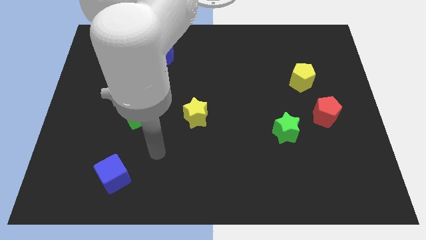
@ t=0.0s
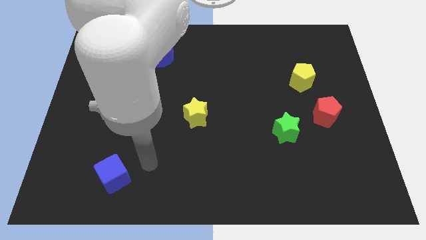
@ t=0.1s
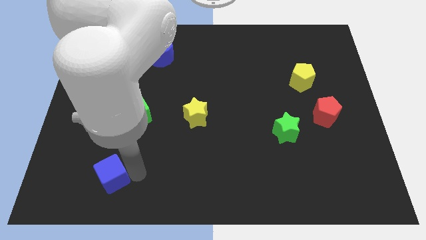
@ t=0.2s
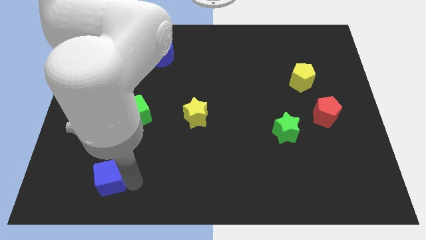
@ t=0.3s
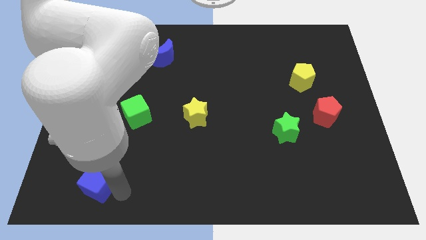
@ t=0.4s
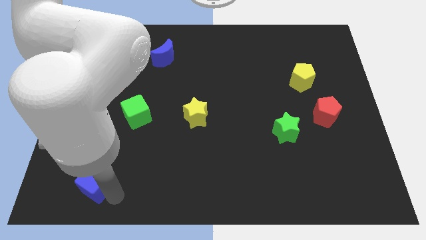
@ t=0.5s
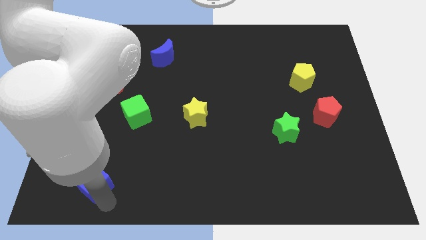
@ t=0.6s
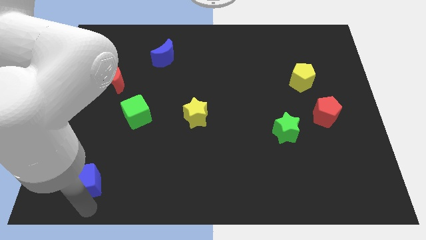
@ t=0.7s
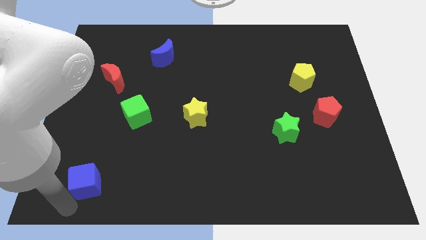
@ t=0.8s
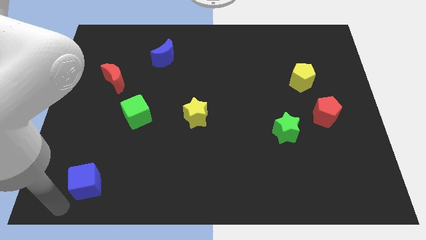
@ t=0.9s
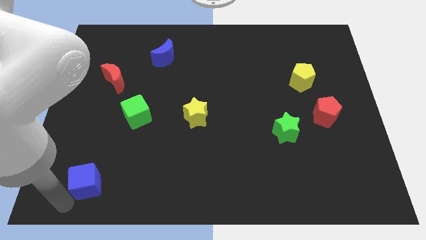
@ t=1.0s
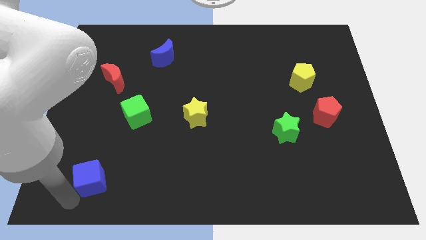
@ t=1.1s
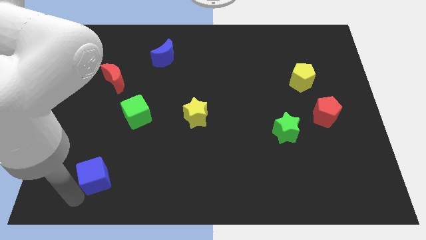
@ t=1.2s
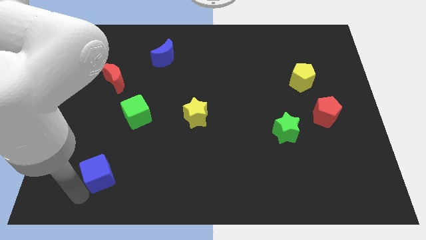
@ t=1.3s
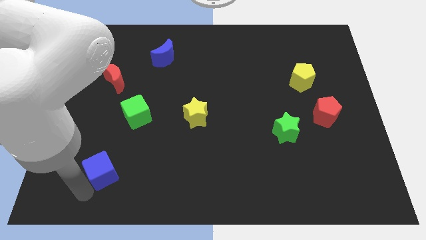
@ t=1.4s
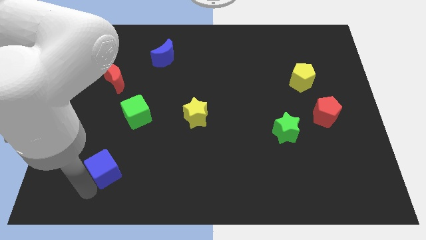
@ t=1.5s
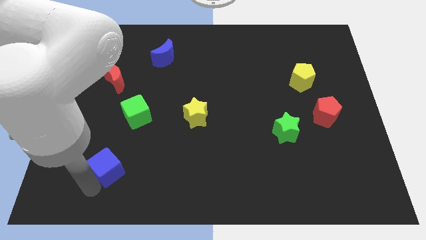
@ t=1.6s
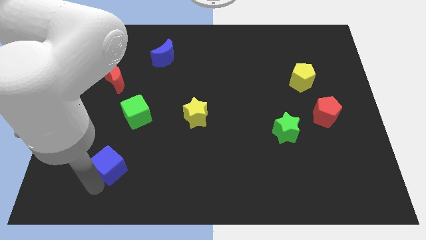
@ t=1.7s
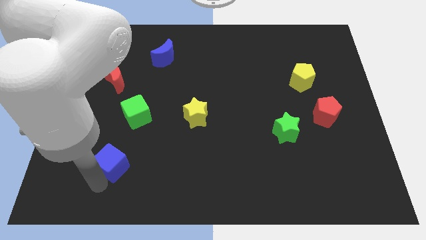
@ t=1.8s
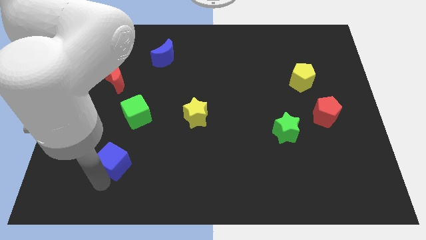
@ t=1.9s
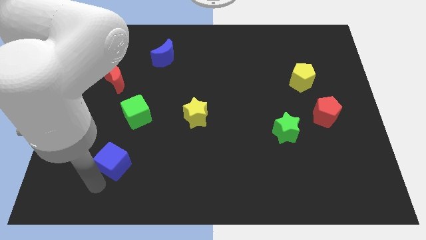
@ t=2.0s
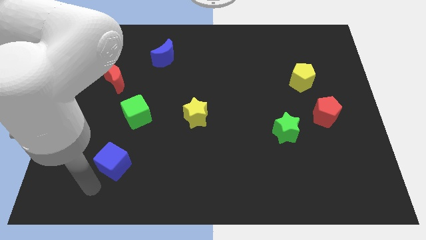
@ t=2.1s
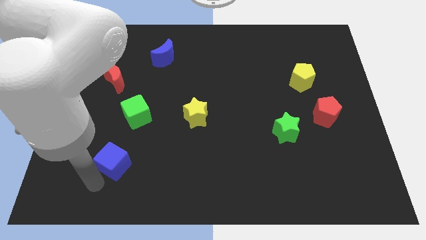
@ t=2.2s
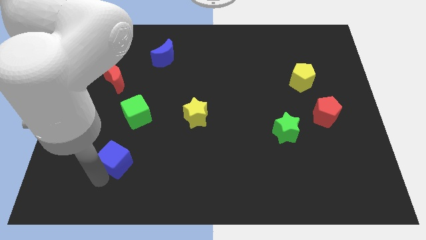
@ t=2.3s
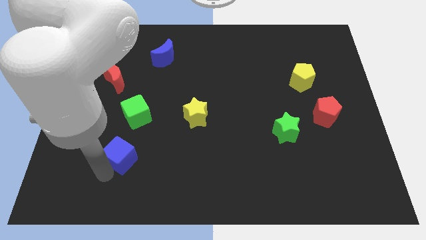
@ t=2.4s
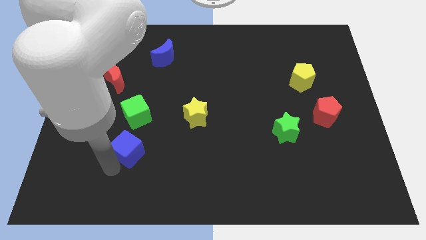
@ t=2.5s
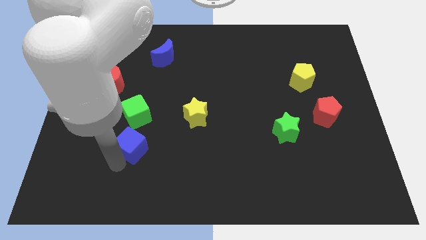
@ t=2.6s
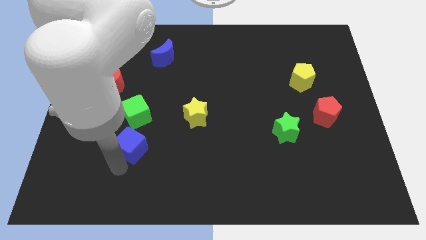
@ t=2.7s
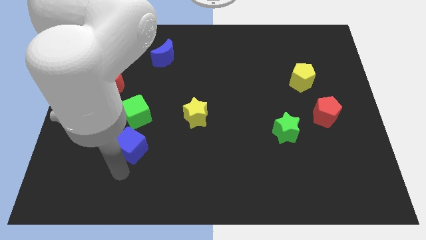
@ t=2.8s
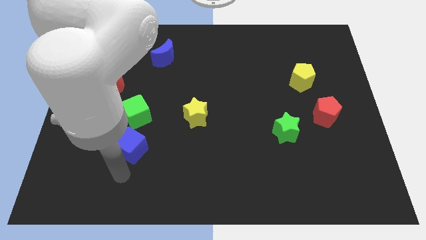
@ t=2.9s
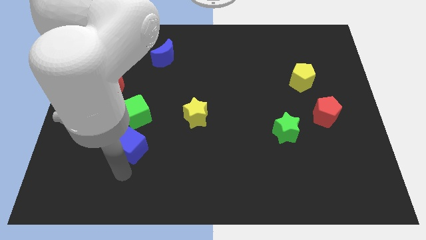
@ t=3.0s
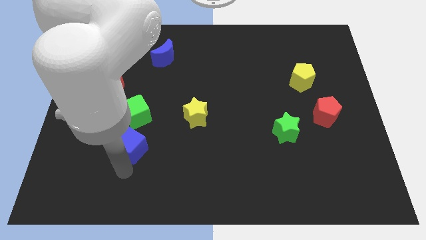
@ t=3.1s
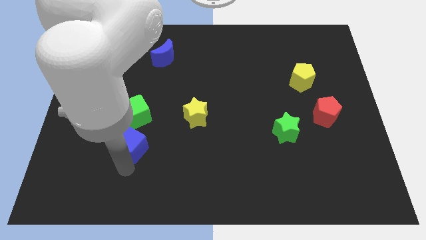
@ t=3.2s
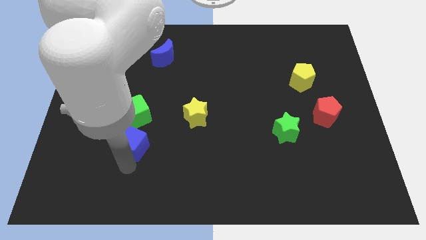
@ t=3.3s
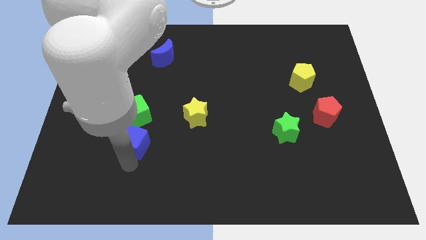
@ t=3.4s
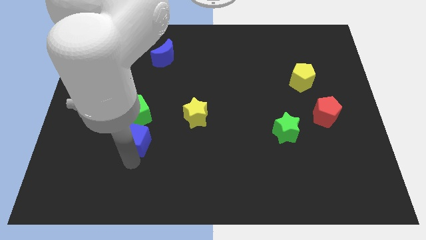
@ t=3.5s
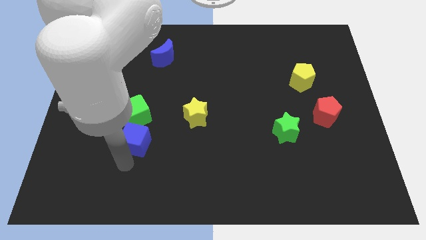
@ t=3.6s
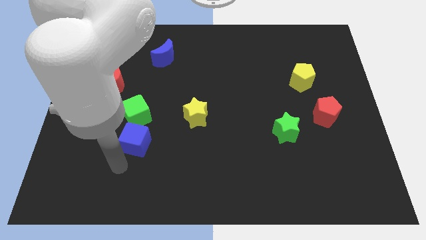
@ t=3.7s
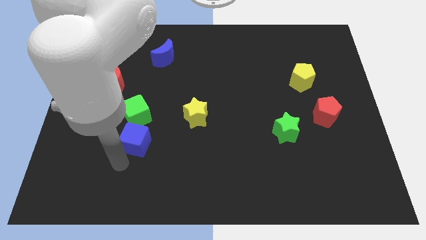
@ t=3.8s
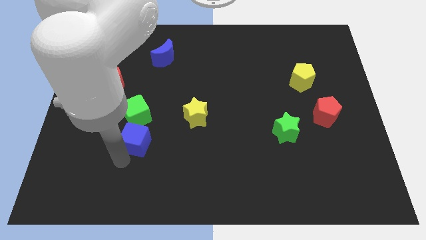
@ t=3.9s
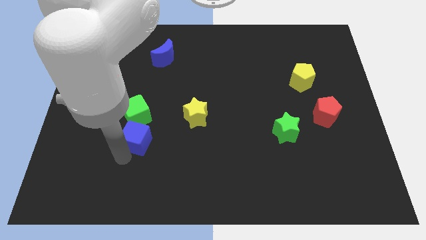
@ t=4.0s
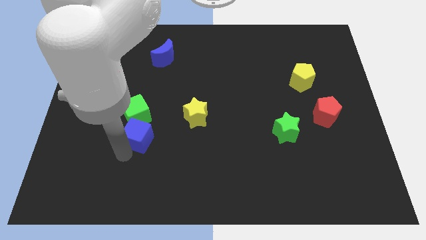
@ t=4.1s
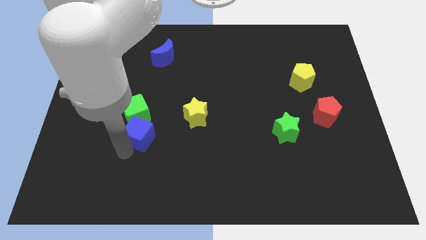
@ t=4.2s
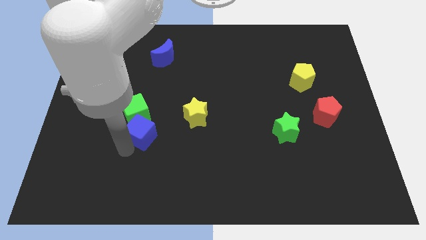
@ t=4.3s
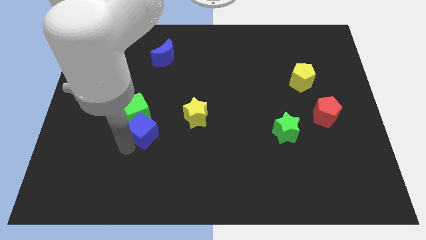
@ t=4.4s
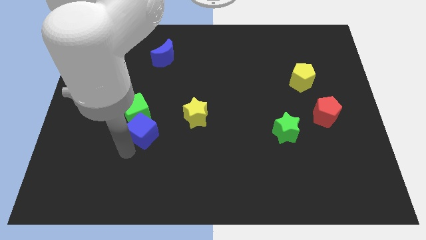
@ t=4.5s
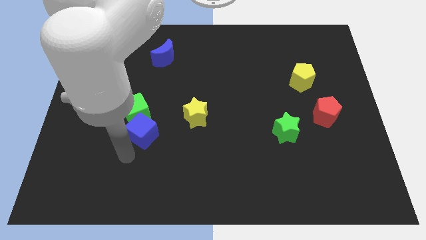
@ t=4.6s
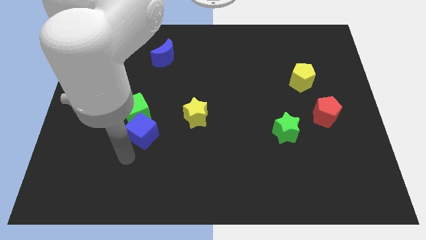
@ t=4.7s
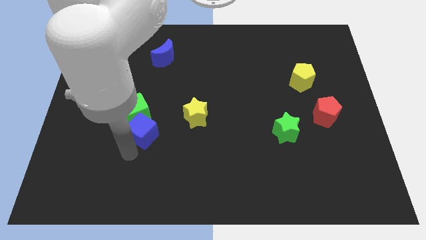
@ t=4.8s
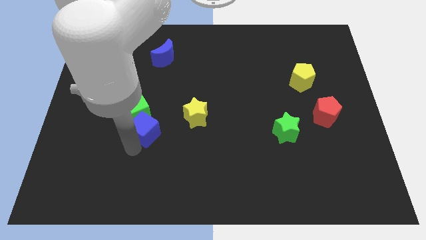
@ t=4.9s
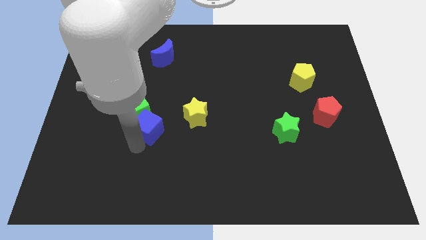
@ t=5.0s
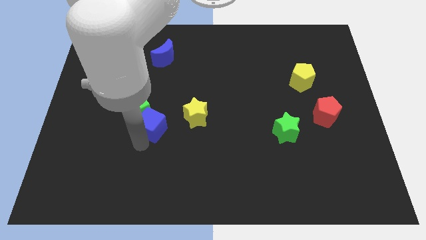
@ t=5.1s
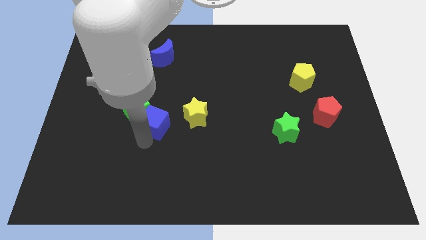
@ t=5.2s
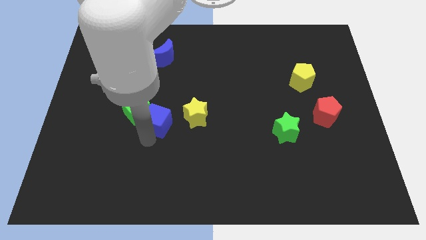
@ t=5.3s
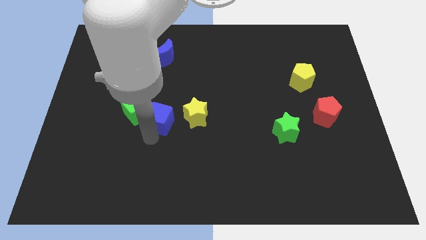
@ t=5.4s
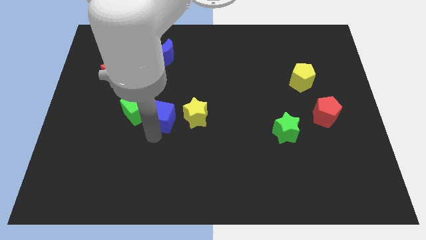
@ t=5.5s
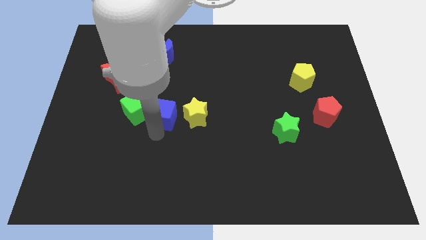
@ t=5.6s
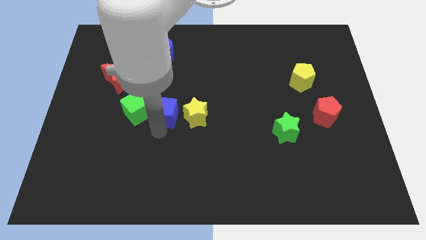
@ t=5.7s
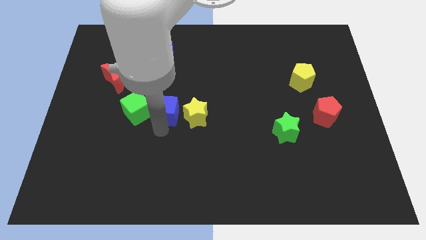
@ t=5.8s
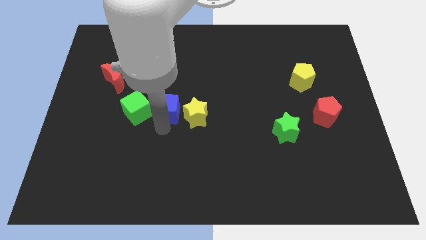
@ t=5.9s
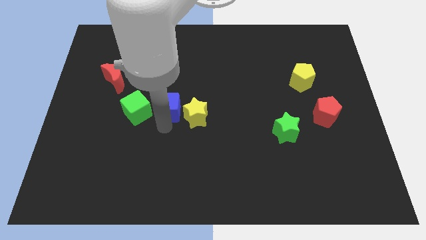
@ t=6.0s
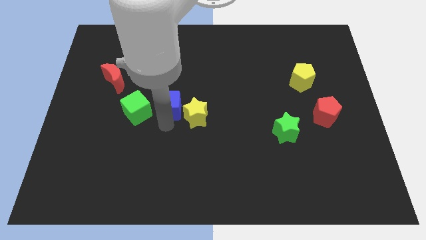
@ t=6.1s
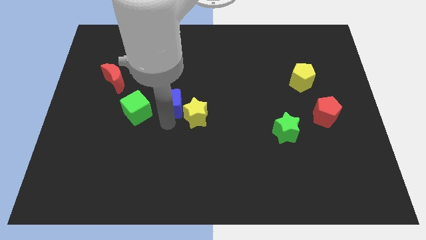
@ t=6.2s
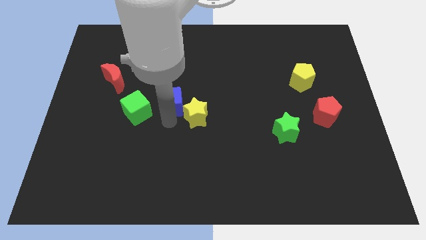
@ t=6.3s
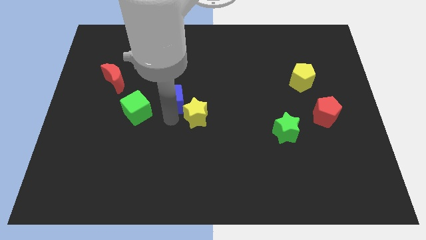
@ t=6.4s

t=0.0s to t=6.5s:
move the blue cube to the bottom of the blue moon
